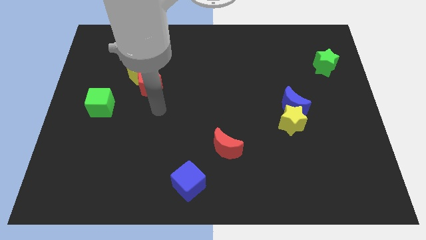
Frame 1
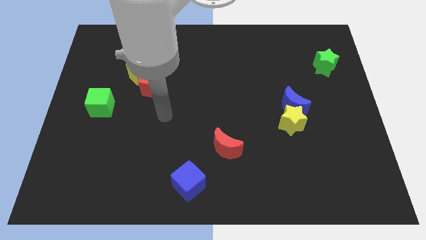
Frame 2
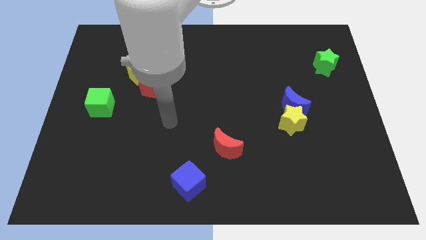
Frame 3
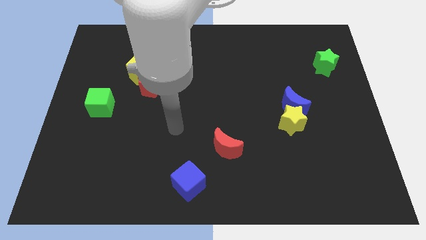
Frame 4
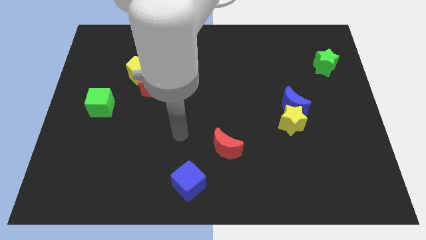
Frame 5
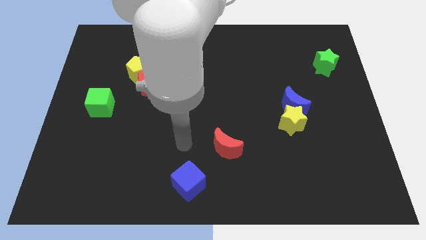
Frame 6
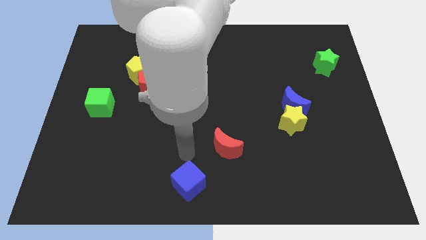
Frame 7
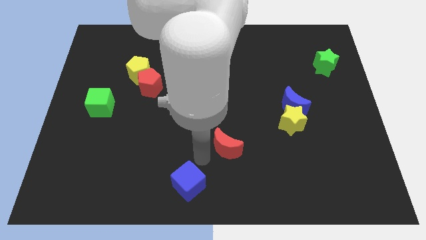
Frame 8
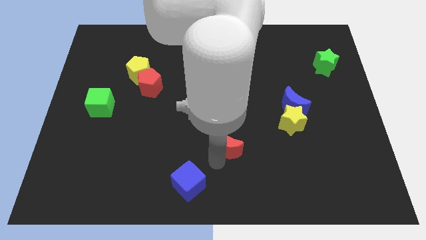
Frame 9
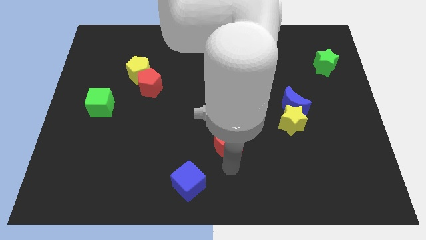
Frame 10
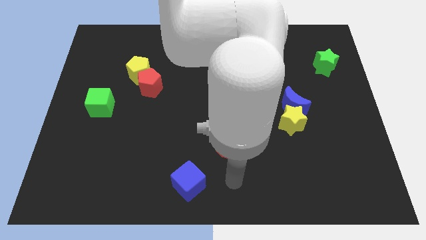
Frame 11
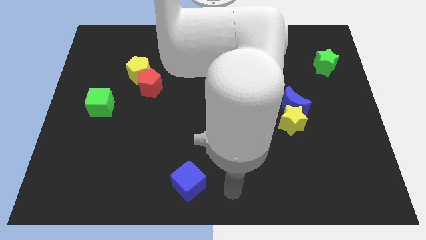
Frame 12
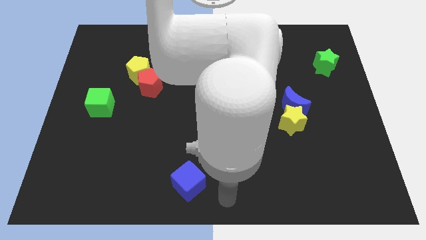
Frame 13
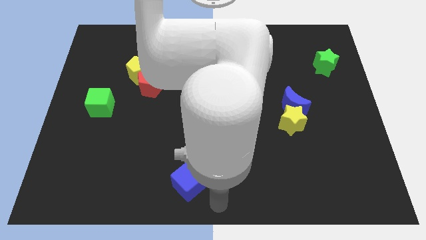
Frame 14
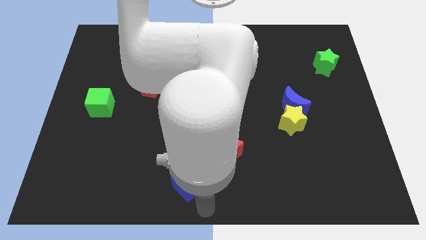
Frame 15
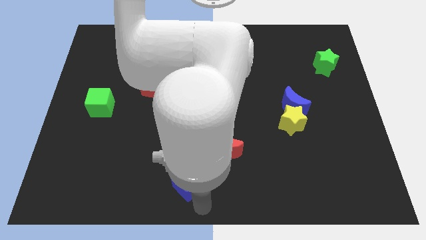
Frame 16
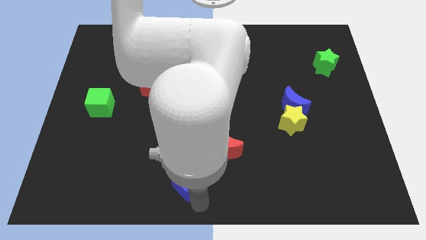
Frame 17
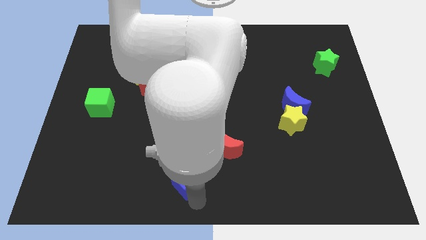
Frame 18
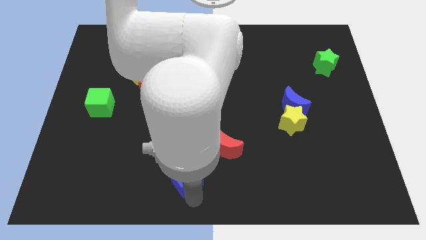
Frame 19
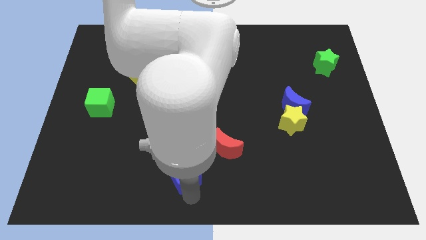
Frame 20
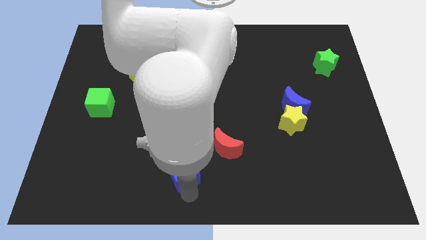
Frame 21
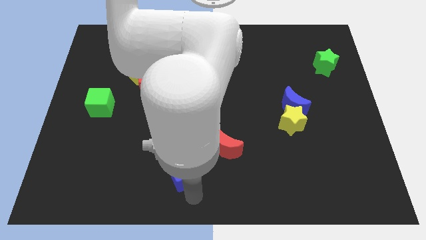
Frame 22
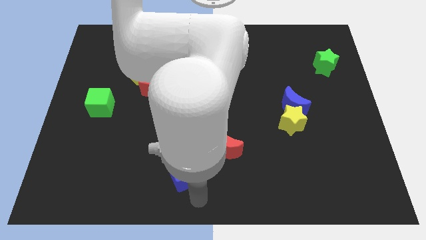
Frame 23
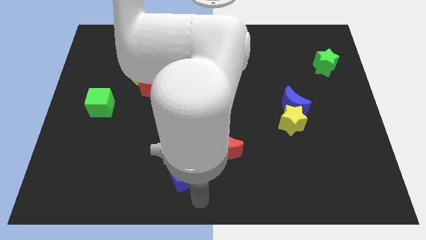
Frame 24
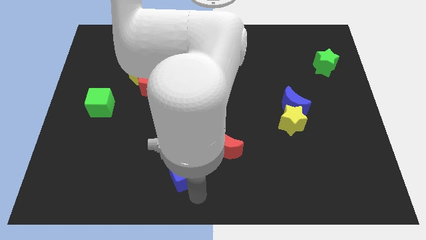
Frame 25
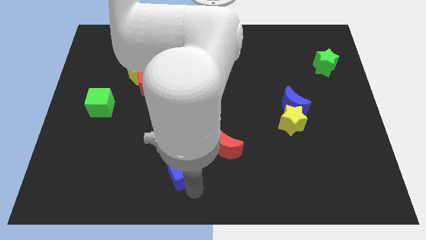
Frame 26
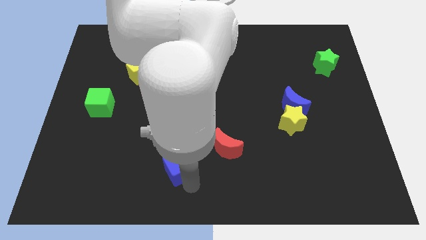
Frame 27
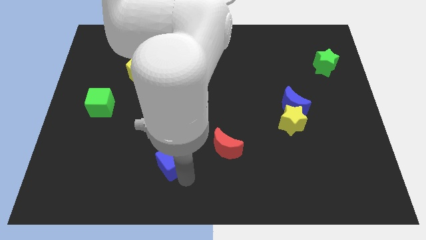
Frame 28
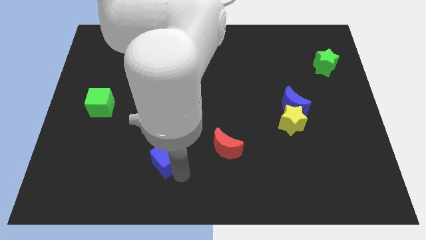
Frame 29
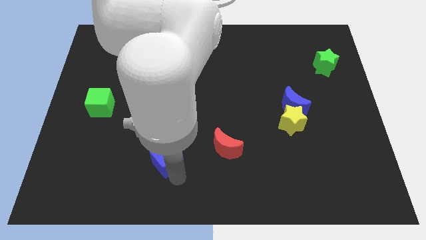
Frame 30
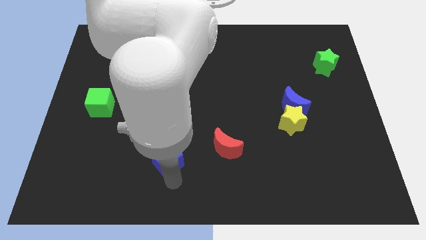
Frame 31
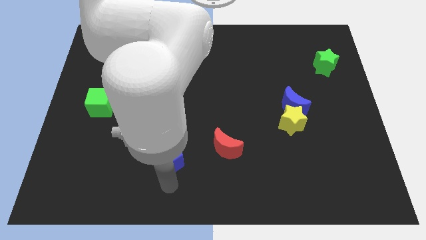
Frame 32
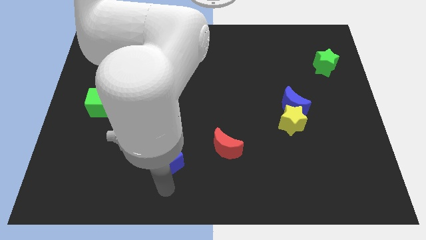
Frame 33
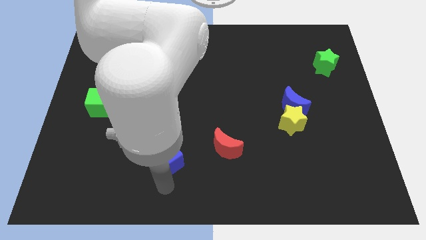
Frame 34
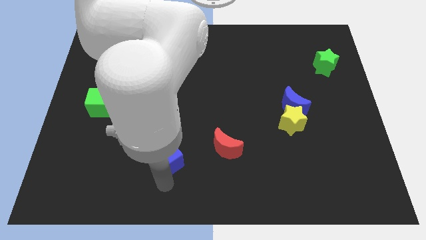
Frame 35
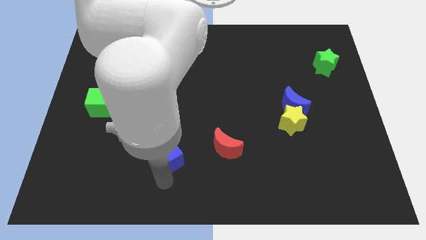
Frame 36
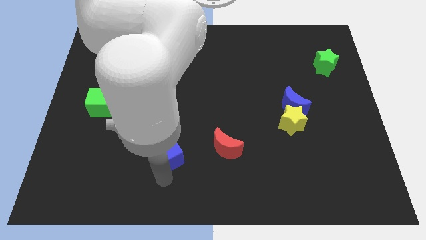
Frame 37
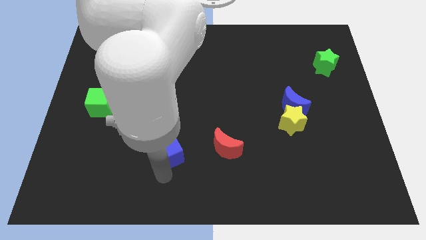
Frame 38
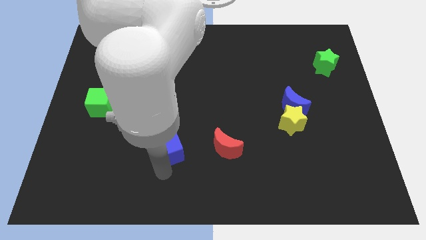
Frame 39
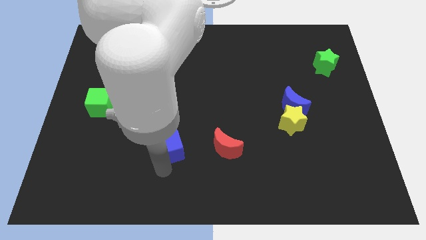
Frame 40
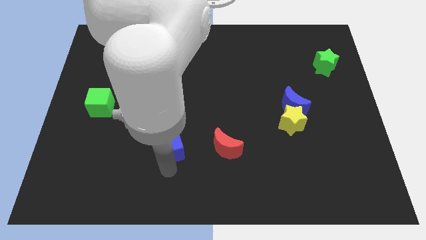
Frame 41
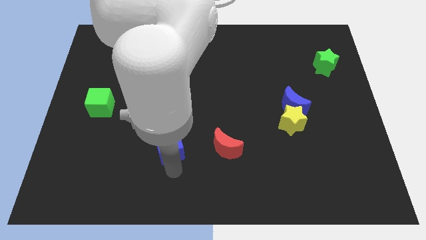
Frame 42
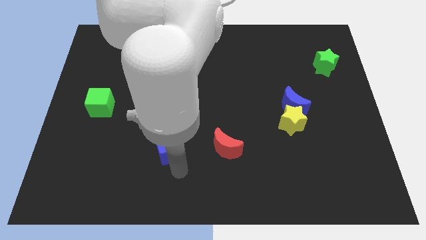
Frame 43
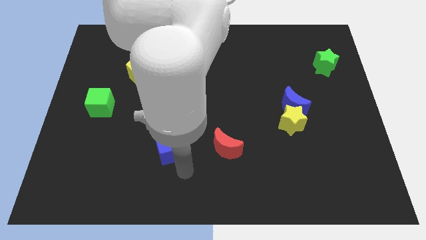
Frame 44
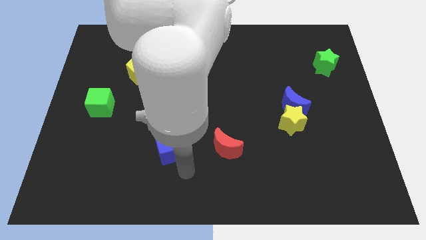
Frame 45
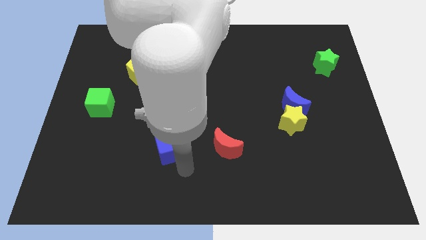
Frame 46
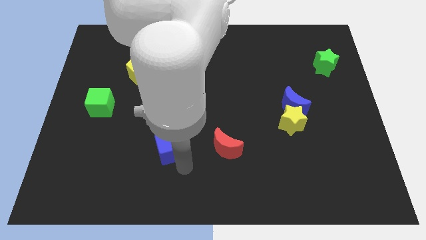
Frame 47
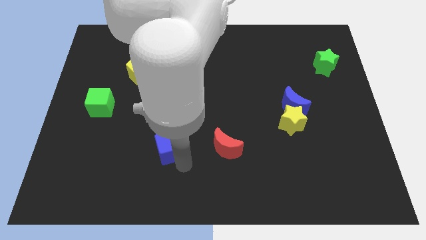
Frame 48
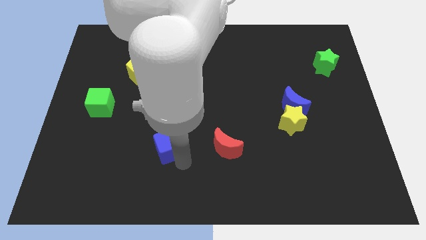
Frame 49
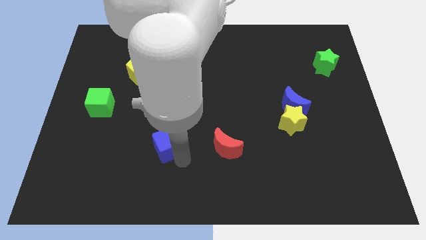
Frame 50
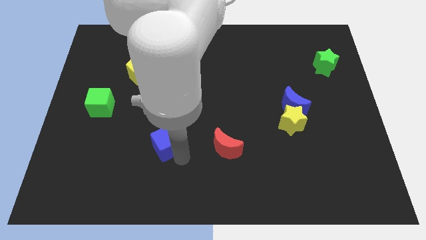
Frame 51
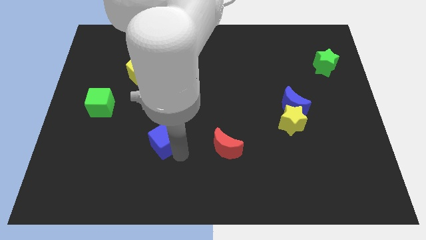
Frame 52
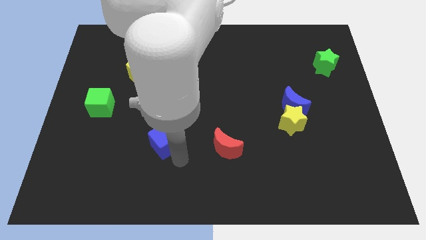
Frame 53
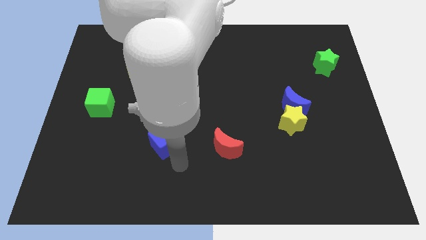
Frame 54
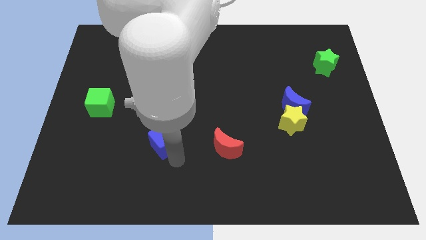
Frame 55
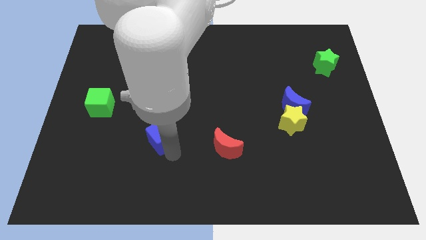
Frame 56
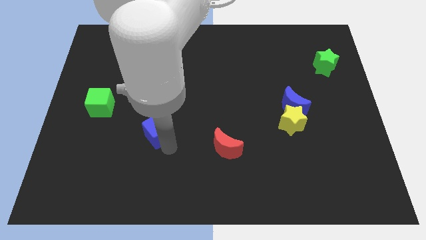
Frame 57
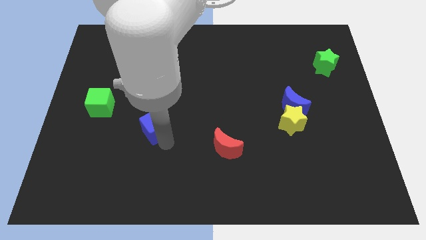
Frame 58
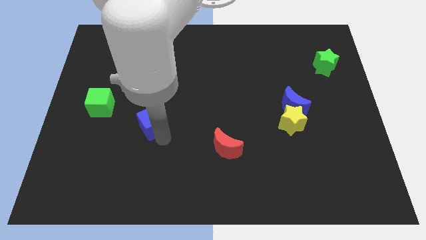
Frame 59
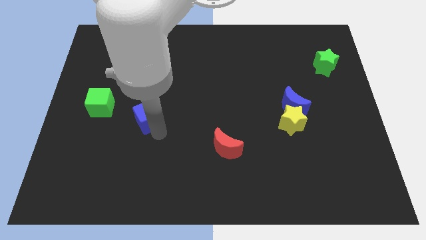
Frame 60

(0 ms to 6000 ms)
slide the blue cube to the right of the green cube

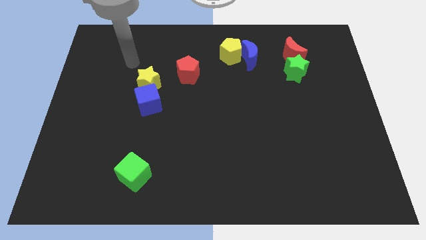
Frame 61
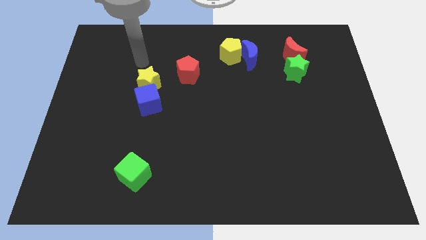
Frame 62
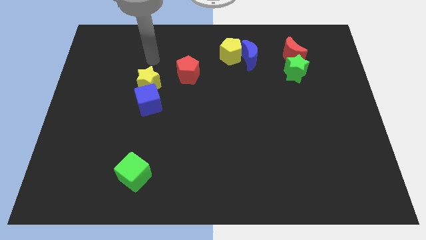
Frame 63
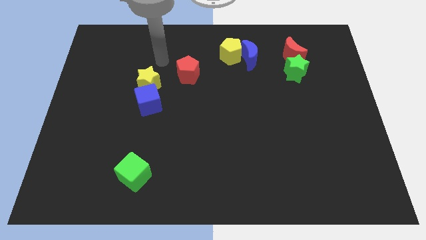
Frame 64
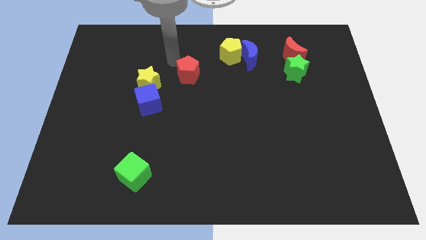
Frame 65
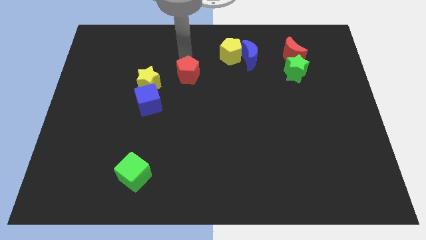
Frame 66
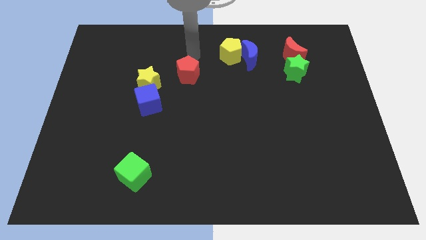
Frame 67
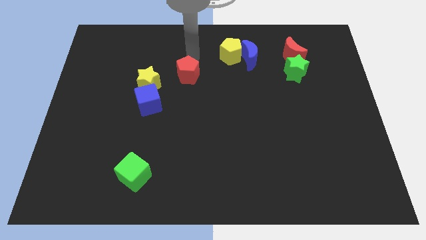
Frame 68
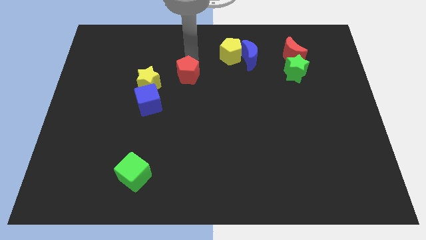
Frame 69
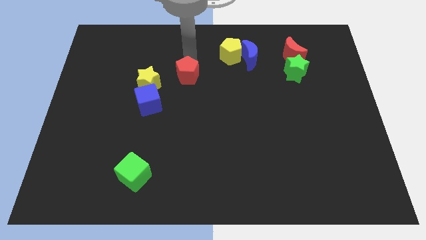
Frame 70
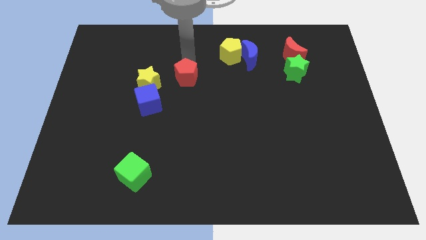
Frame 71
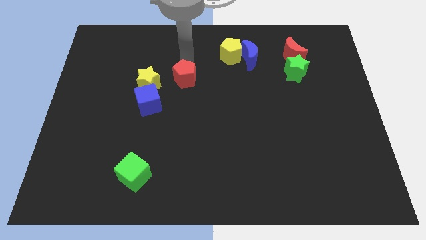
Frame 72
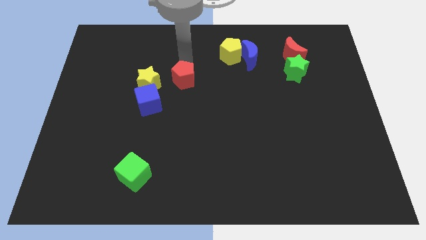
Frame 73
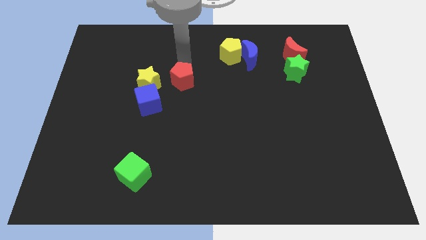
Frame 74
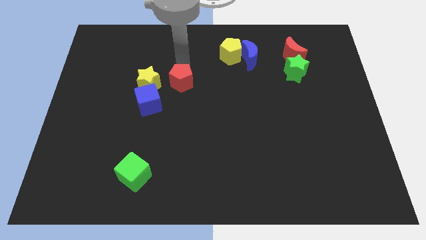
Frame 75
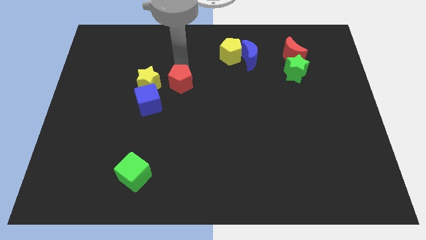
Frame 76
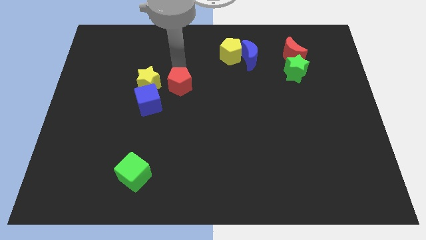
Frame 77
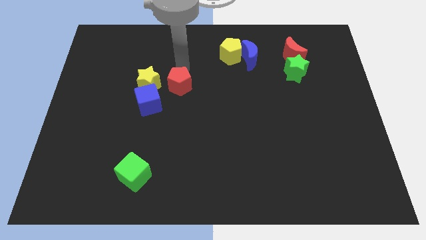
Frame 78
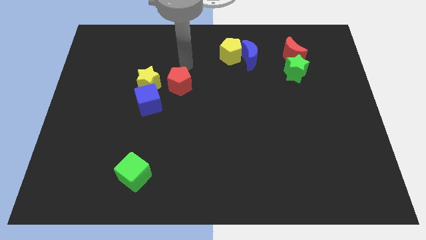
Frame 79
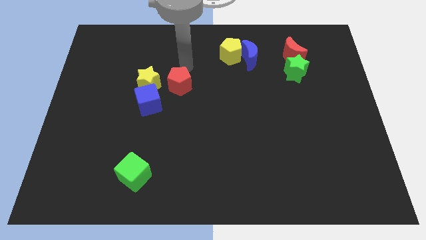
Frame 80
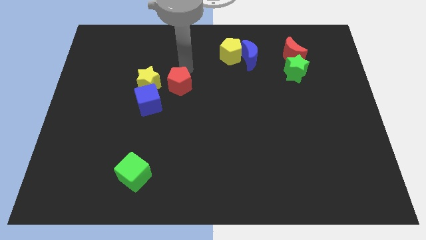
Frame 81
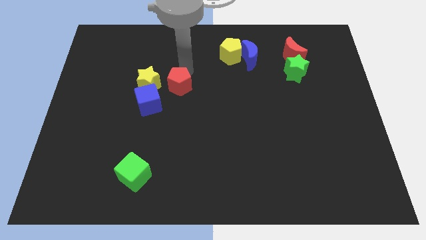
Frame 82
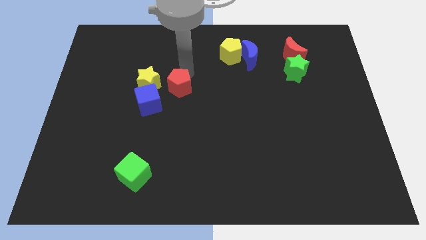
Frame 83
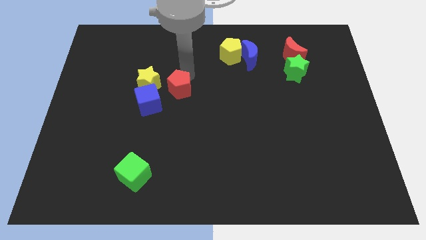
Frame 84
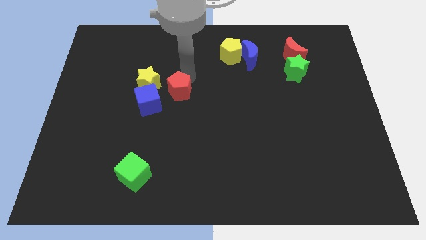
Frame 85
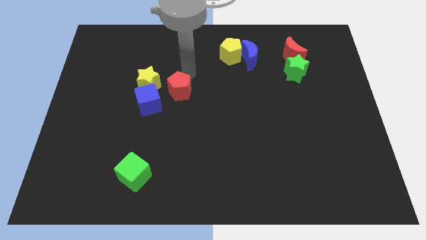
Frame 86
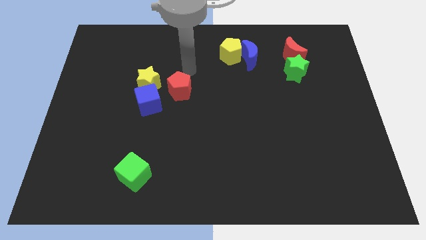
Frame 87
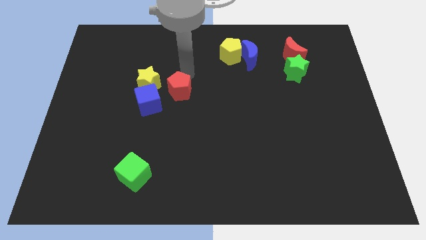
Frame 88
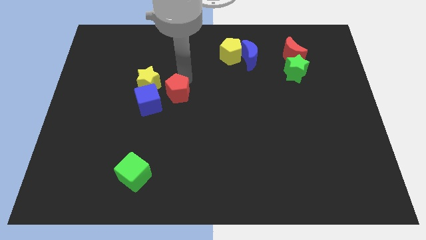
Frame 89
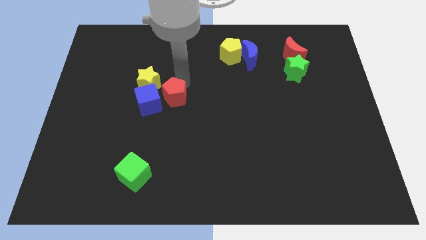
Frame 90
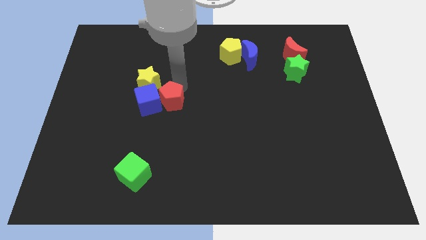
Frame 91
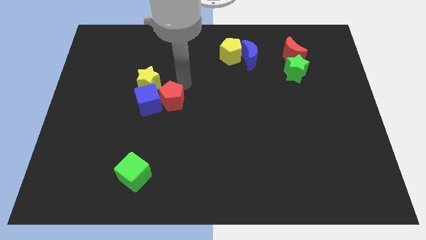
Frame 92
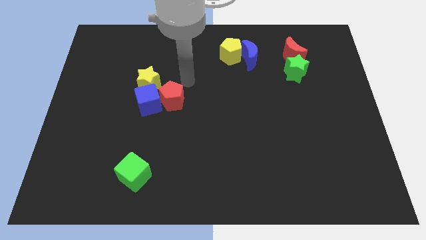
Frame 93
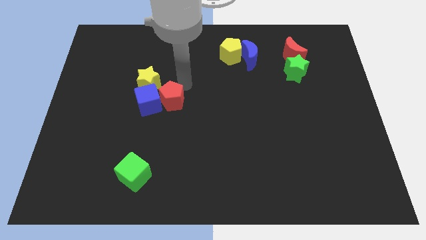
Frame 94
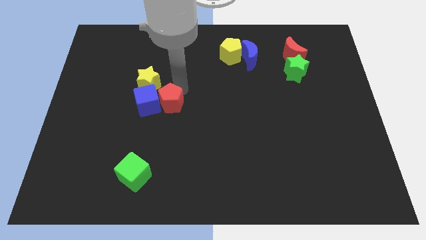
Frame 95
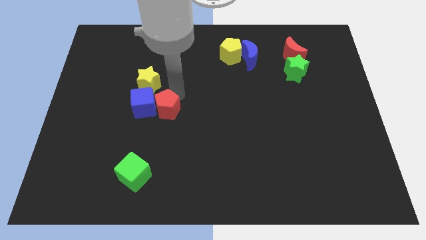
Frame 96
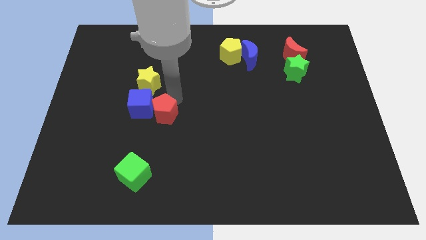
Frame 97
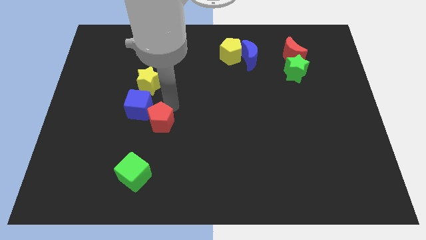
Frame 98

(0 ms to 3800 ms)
put the red pentagon above the green cube
